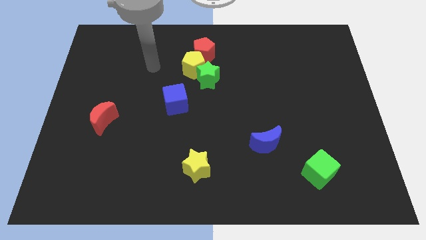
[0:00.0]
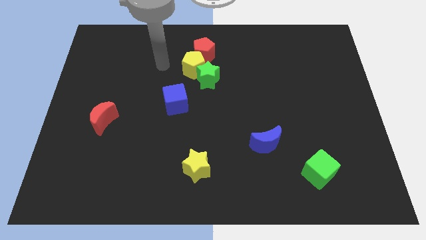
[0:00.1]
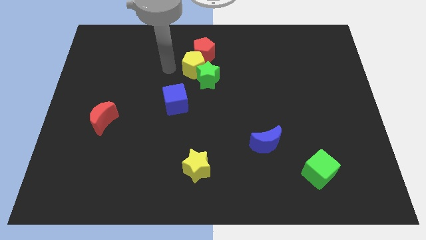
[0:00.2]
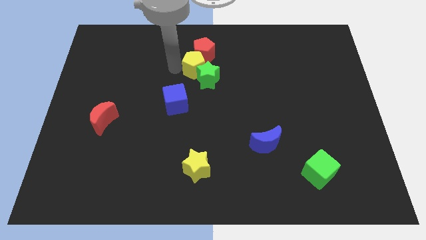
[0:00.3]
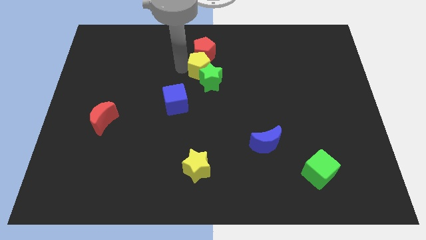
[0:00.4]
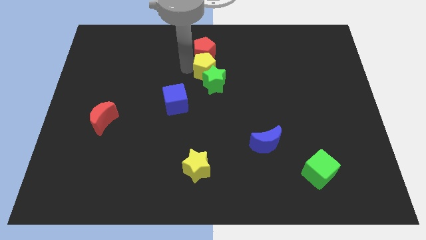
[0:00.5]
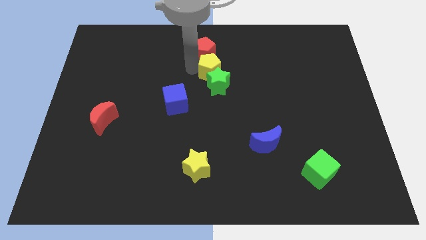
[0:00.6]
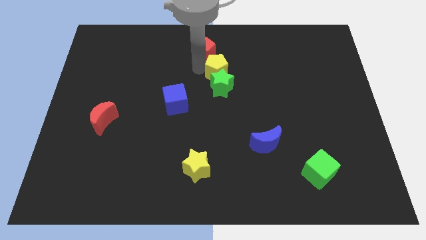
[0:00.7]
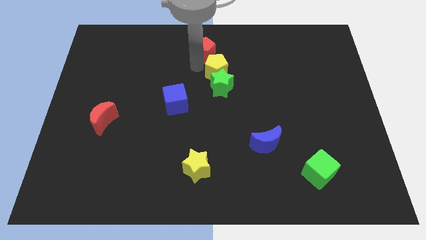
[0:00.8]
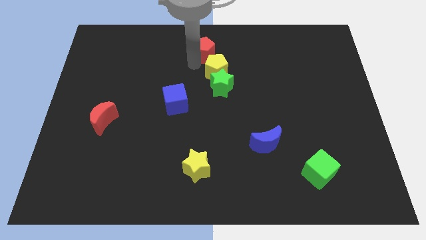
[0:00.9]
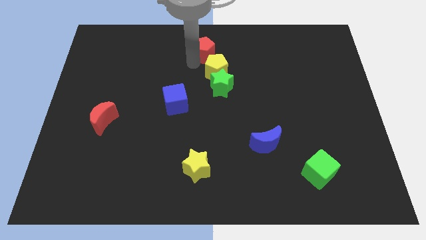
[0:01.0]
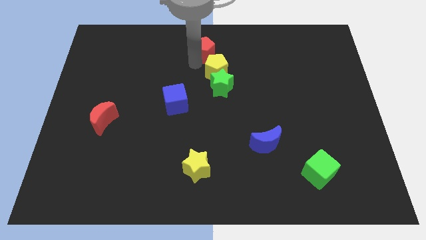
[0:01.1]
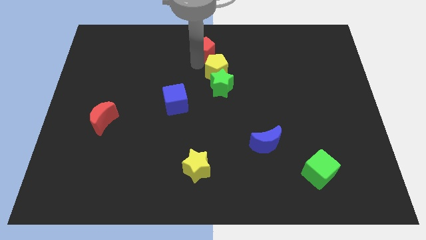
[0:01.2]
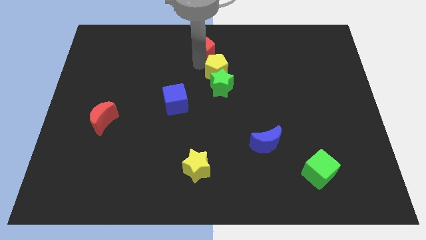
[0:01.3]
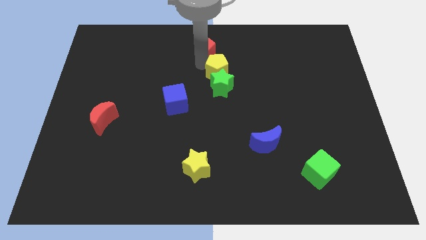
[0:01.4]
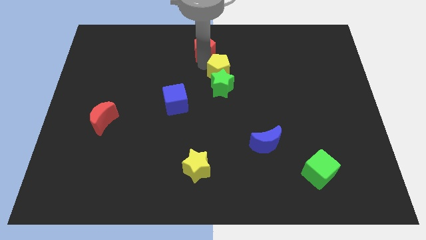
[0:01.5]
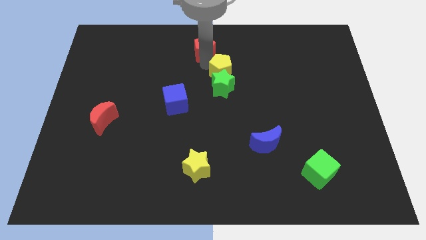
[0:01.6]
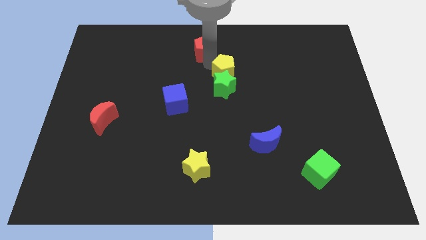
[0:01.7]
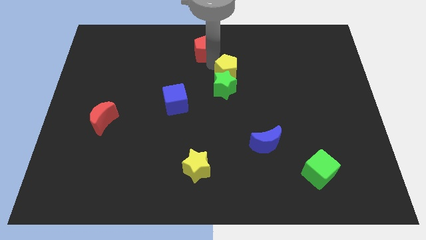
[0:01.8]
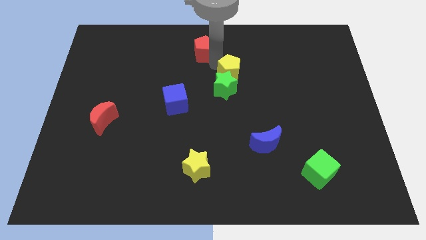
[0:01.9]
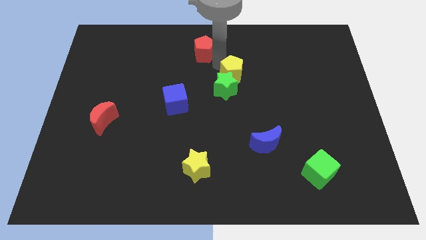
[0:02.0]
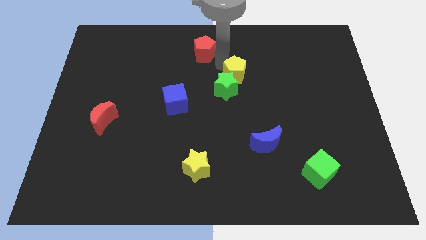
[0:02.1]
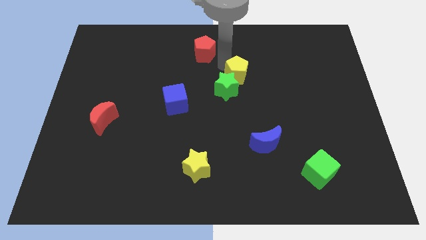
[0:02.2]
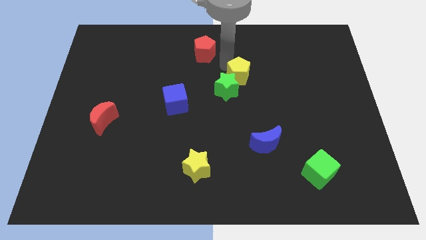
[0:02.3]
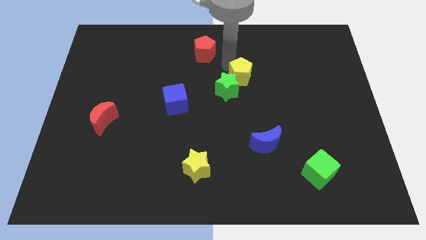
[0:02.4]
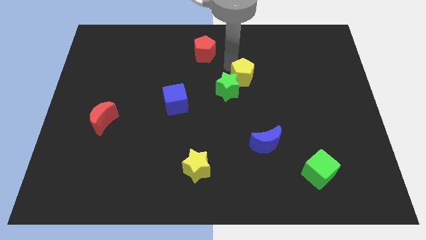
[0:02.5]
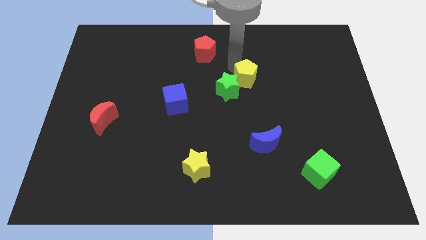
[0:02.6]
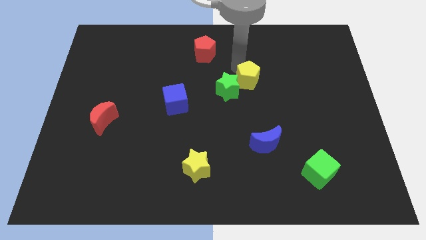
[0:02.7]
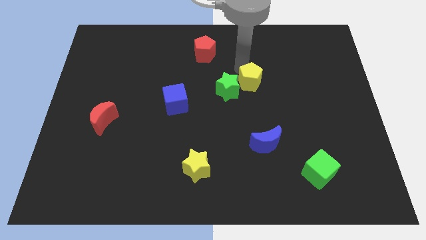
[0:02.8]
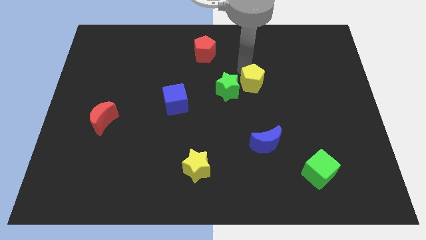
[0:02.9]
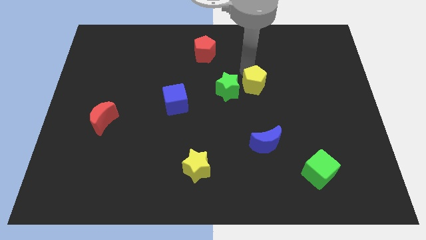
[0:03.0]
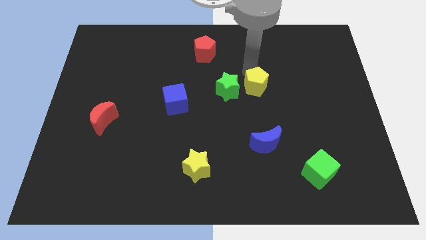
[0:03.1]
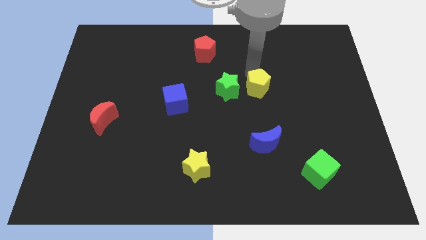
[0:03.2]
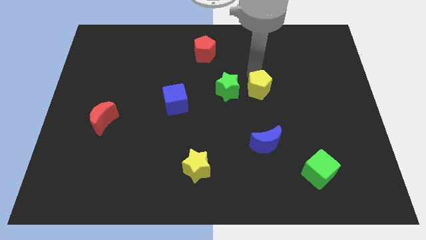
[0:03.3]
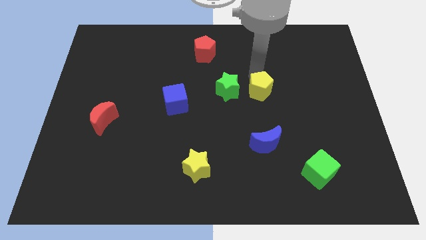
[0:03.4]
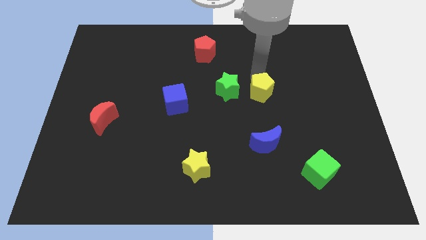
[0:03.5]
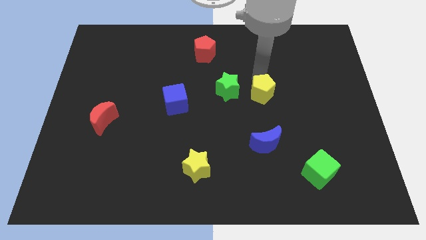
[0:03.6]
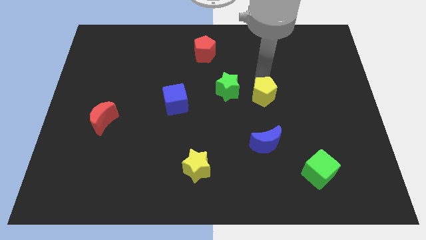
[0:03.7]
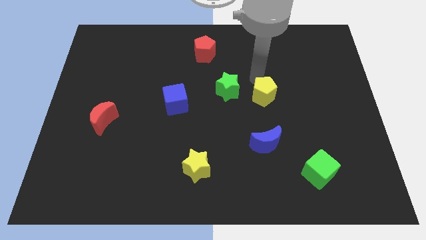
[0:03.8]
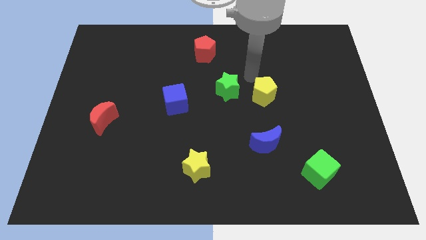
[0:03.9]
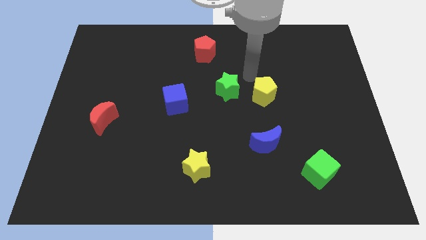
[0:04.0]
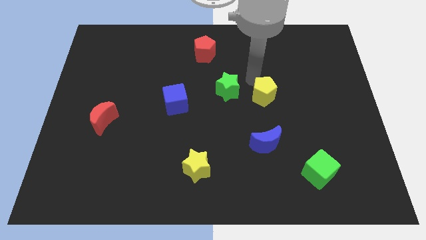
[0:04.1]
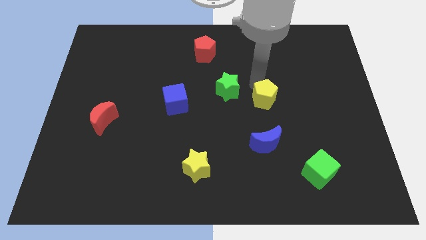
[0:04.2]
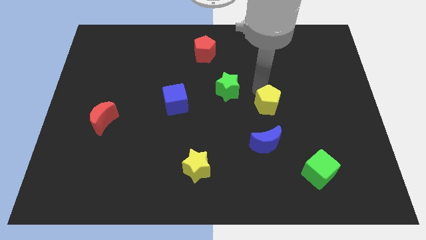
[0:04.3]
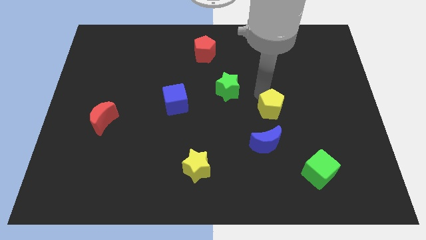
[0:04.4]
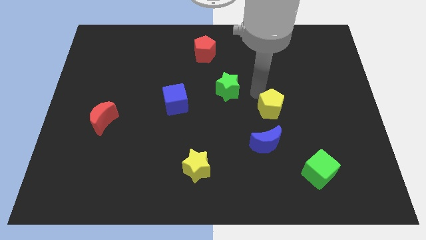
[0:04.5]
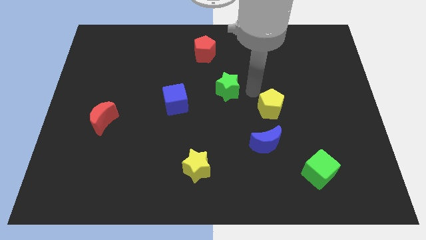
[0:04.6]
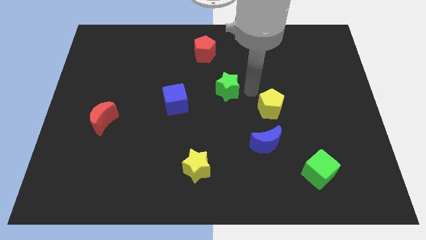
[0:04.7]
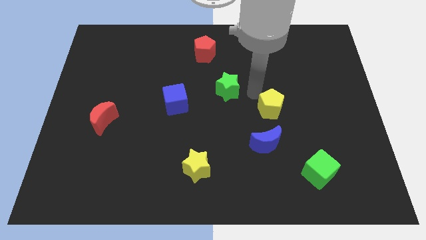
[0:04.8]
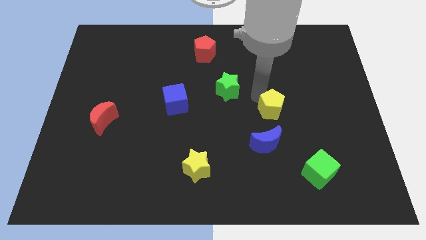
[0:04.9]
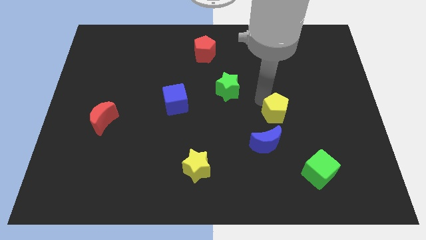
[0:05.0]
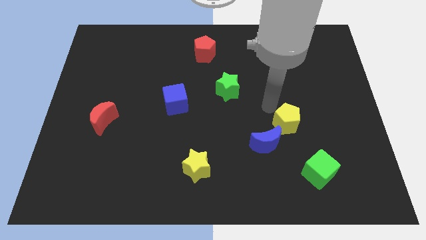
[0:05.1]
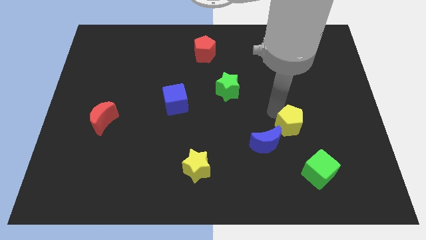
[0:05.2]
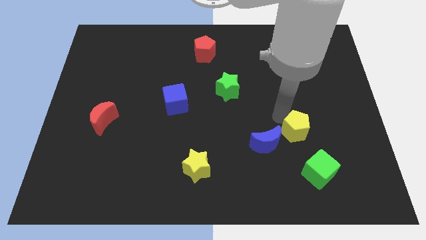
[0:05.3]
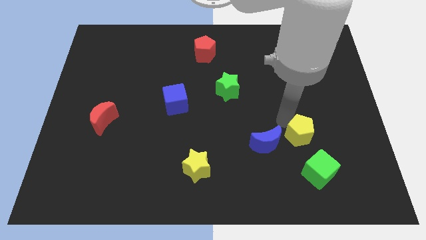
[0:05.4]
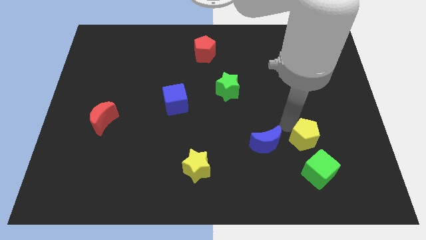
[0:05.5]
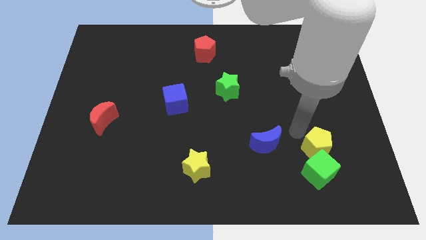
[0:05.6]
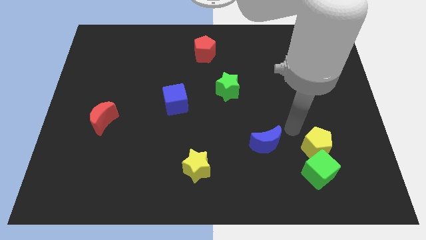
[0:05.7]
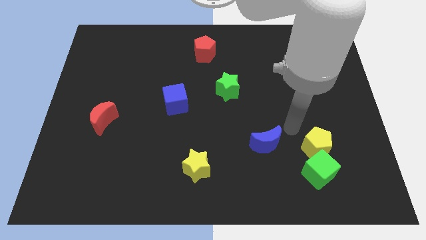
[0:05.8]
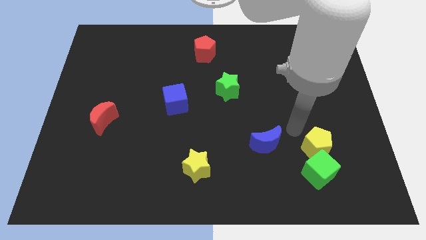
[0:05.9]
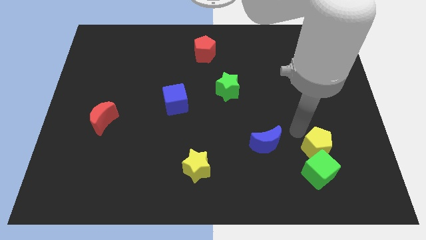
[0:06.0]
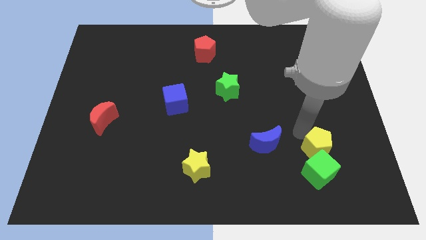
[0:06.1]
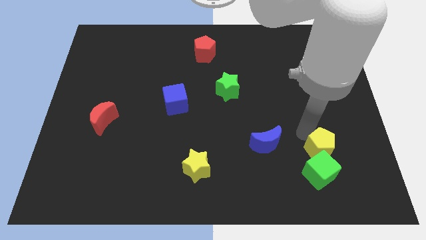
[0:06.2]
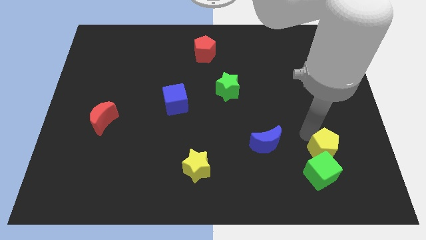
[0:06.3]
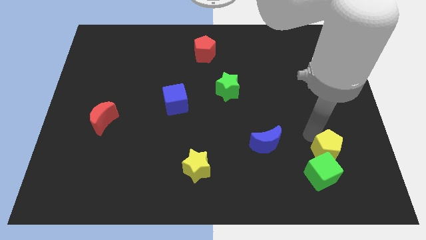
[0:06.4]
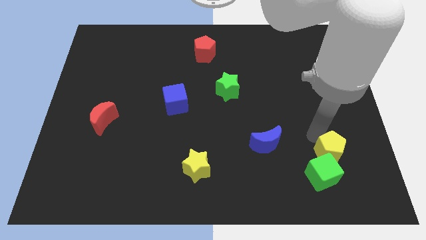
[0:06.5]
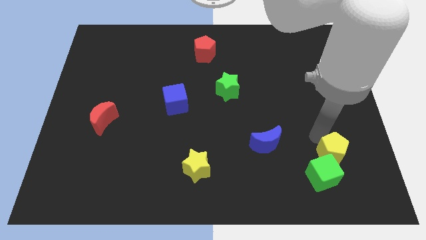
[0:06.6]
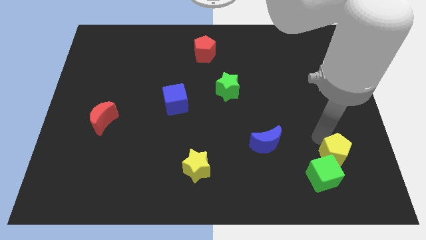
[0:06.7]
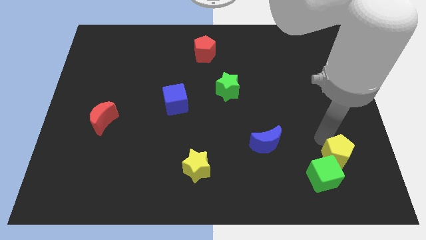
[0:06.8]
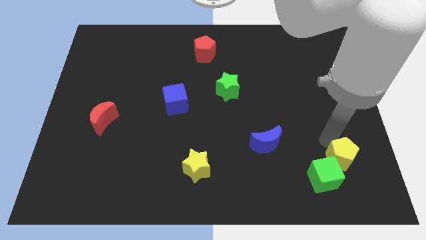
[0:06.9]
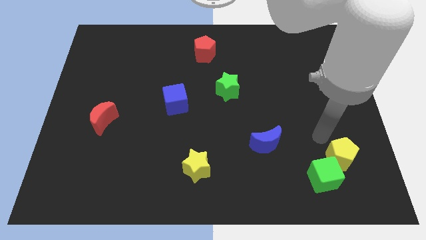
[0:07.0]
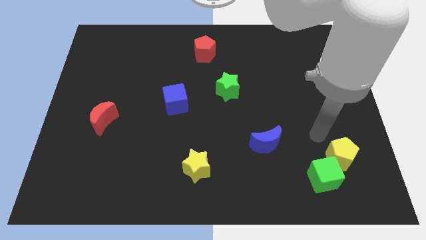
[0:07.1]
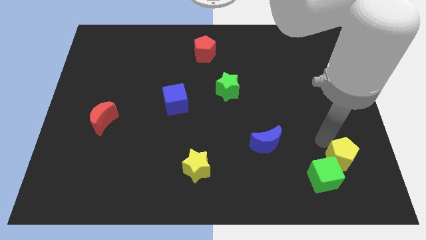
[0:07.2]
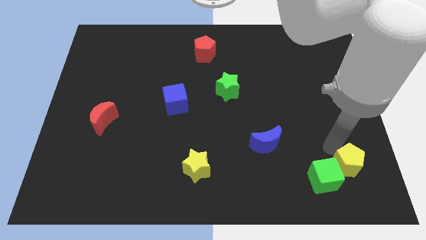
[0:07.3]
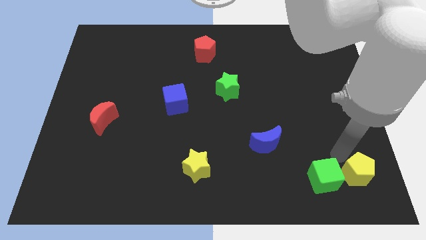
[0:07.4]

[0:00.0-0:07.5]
put the yellow pentagon to the bottom right of the board
